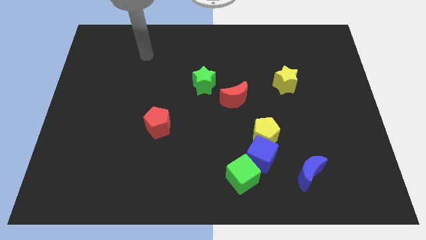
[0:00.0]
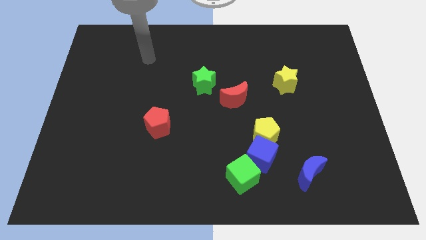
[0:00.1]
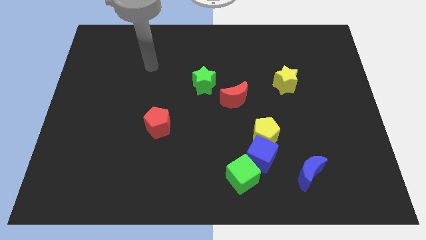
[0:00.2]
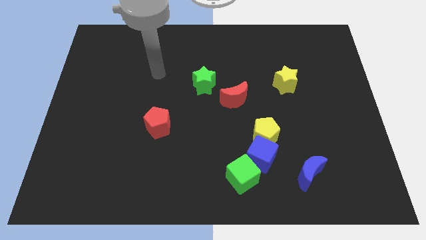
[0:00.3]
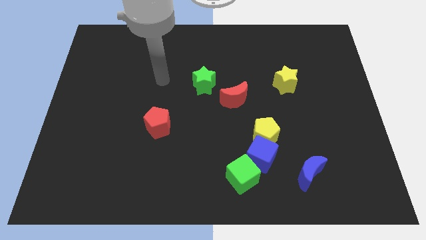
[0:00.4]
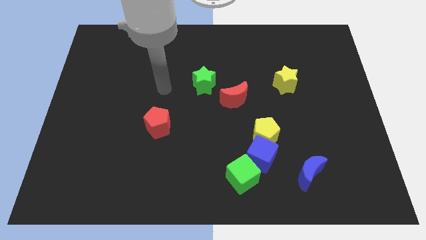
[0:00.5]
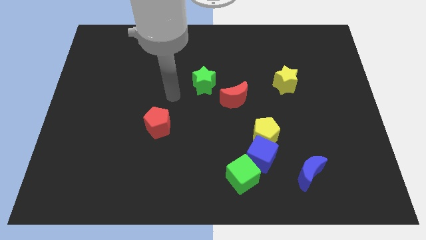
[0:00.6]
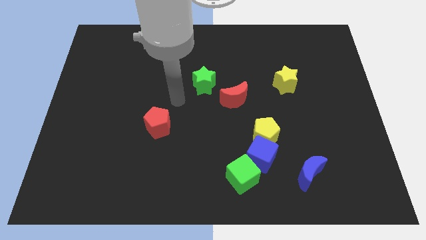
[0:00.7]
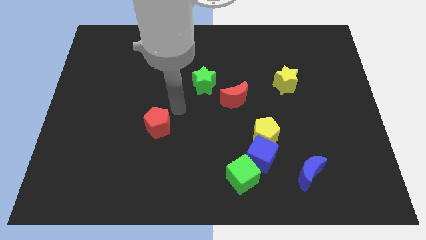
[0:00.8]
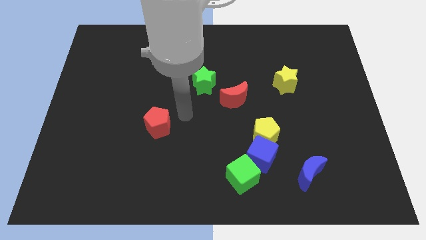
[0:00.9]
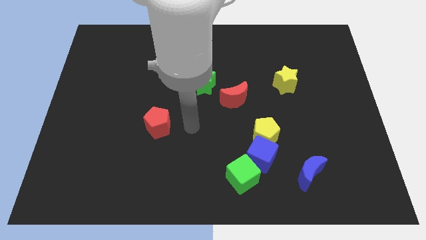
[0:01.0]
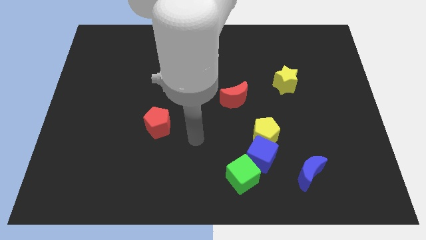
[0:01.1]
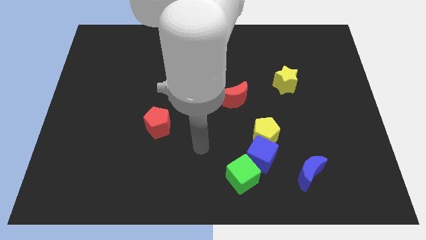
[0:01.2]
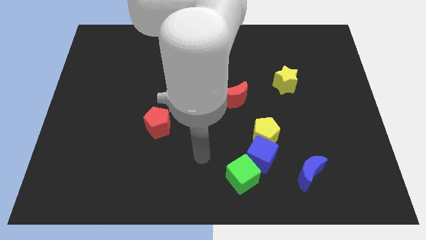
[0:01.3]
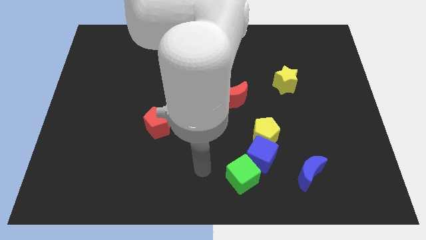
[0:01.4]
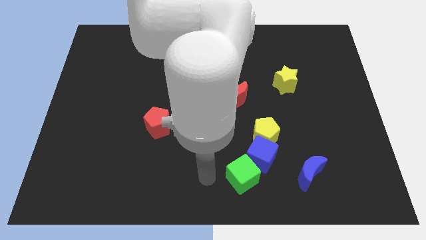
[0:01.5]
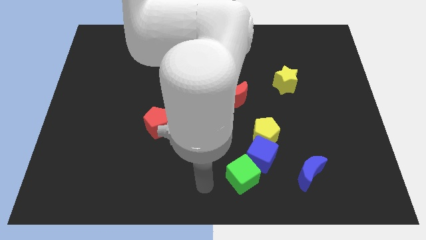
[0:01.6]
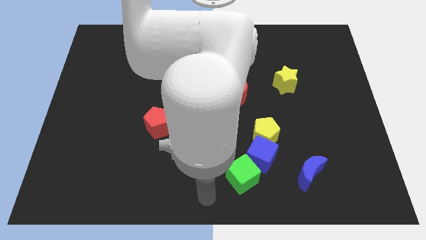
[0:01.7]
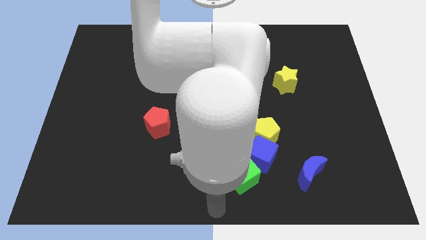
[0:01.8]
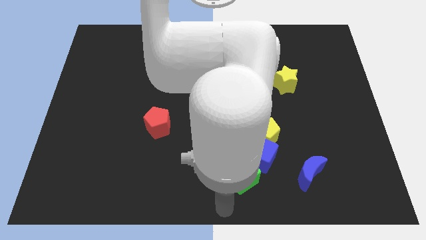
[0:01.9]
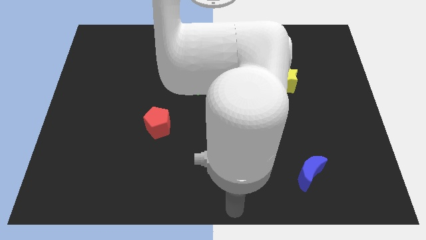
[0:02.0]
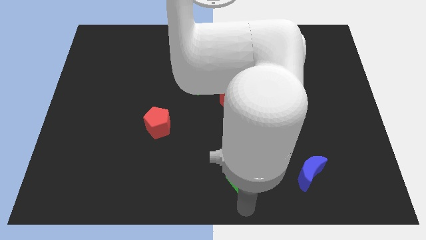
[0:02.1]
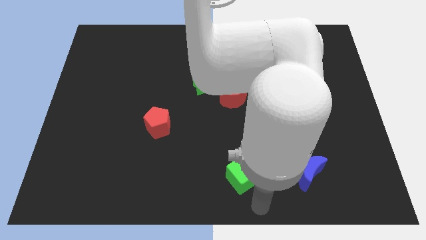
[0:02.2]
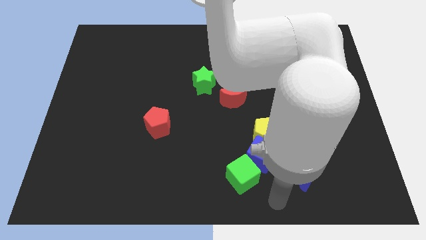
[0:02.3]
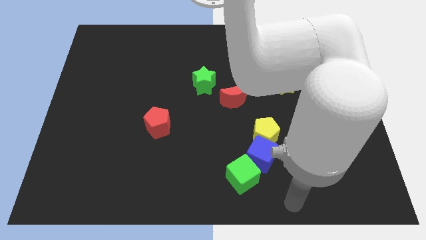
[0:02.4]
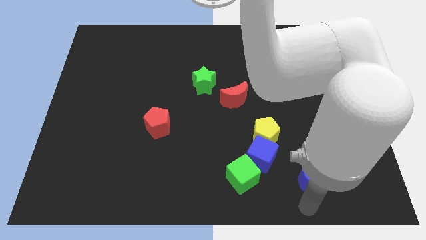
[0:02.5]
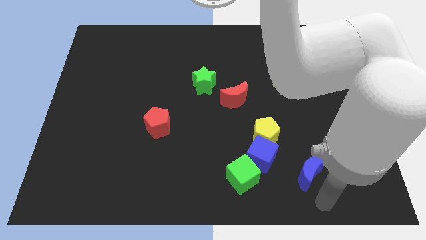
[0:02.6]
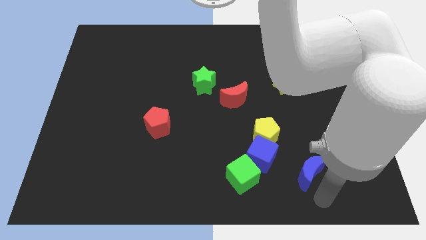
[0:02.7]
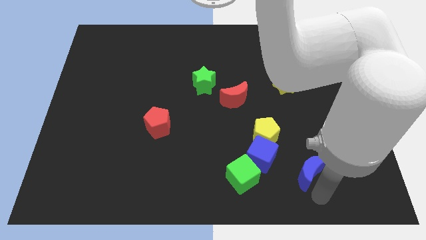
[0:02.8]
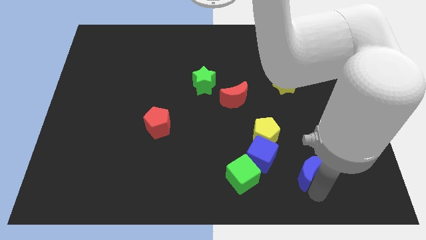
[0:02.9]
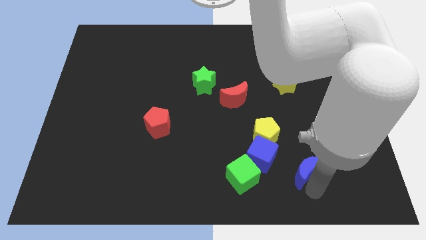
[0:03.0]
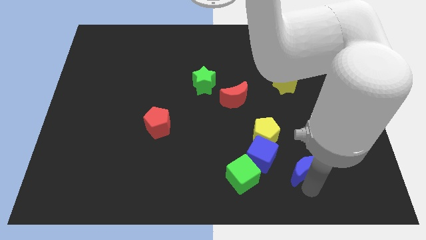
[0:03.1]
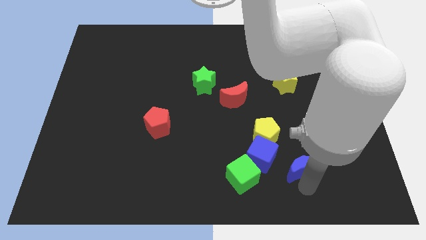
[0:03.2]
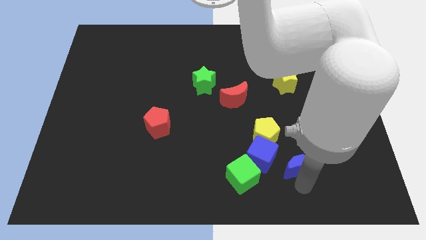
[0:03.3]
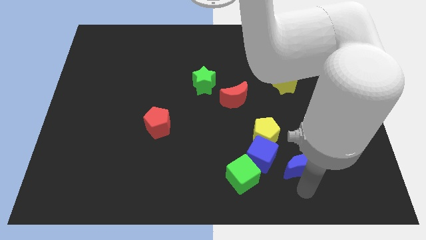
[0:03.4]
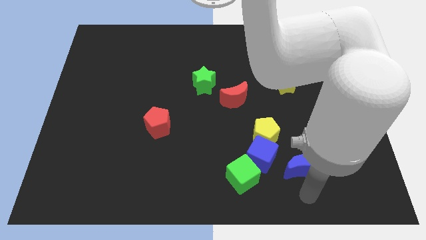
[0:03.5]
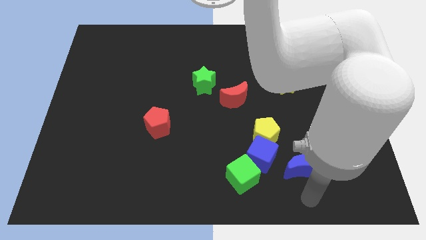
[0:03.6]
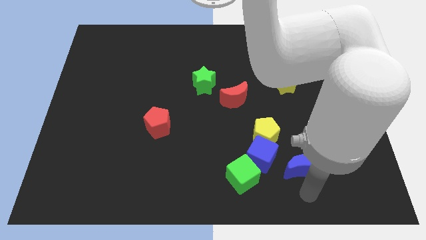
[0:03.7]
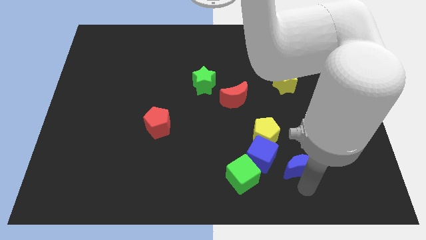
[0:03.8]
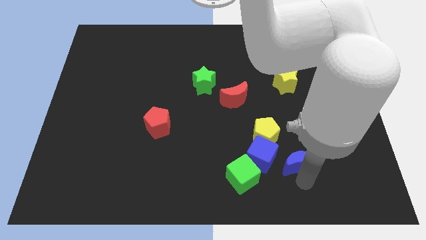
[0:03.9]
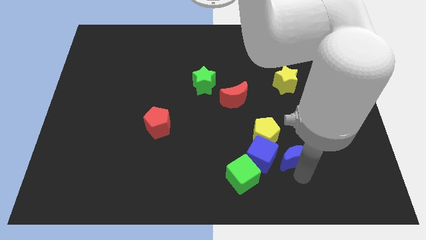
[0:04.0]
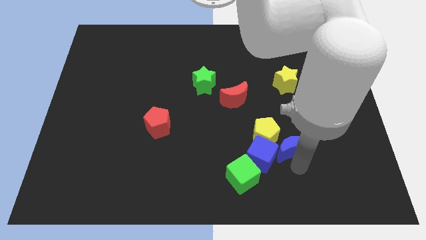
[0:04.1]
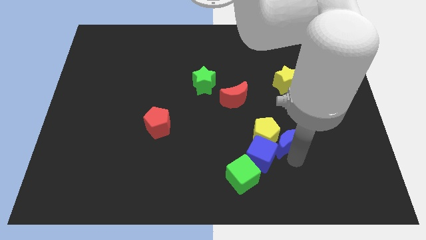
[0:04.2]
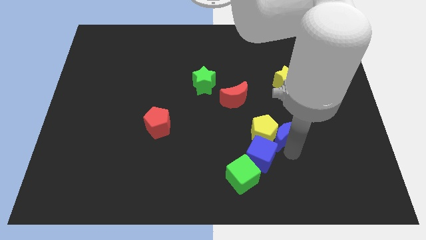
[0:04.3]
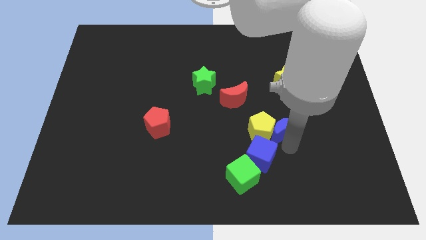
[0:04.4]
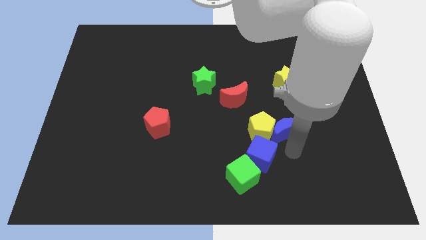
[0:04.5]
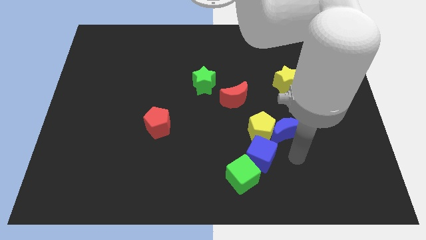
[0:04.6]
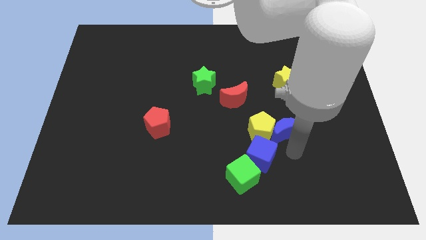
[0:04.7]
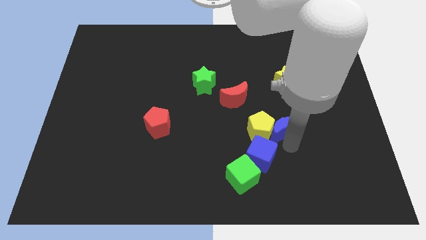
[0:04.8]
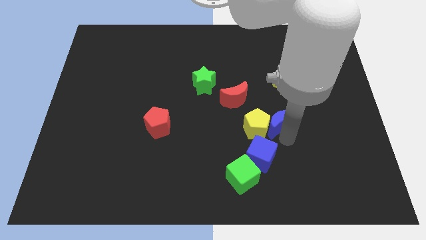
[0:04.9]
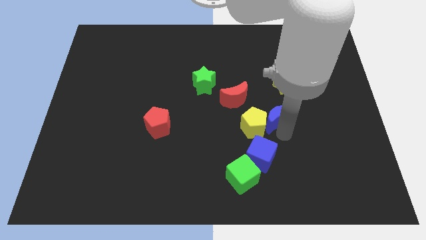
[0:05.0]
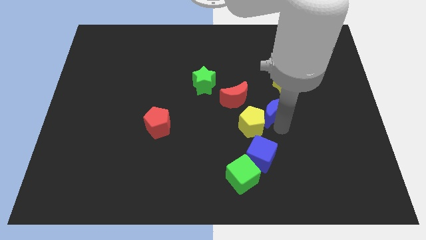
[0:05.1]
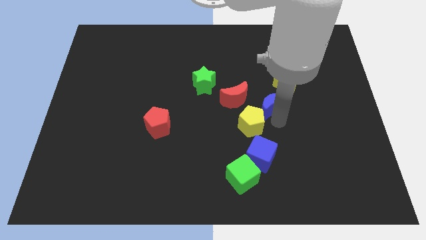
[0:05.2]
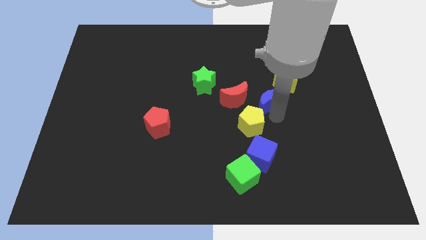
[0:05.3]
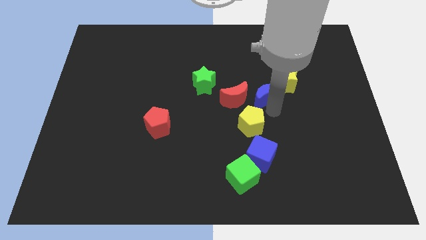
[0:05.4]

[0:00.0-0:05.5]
push the blue moon to the top right side of the red moon

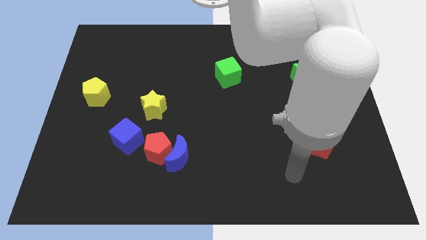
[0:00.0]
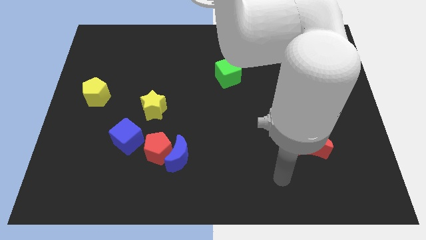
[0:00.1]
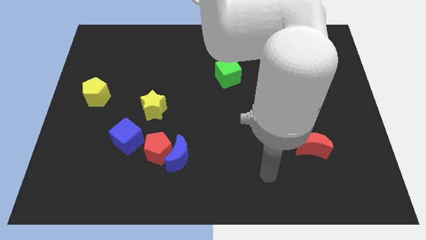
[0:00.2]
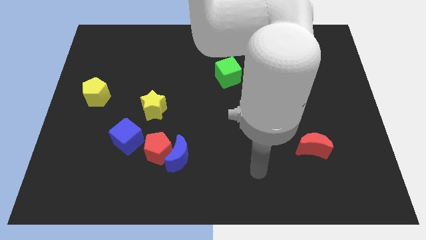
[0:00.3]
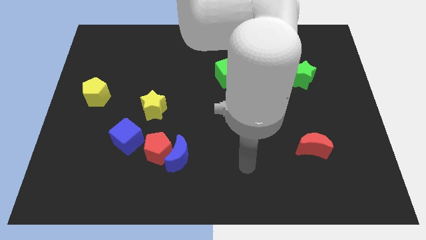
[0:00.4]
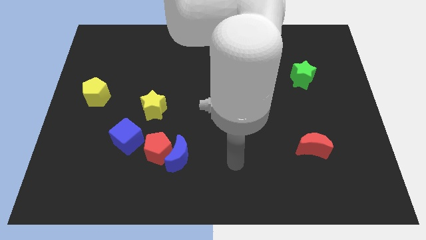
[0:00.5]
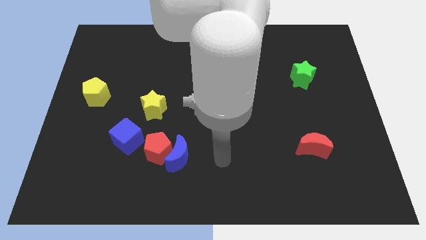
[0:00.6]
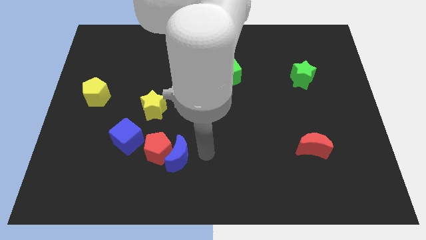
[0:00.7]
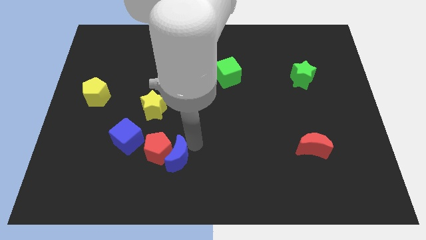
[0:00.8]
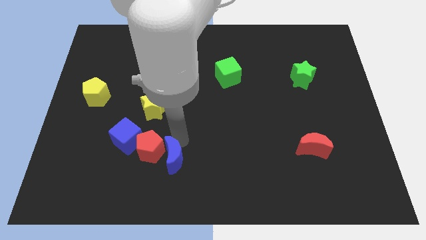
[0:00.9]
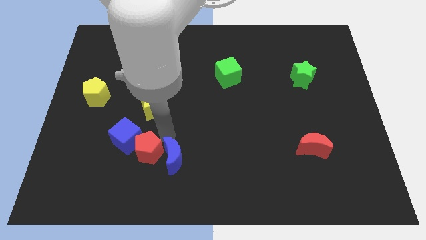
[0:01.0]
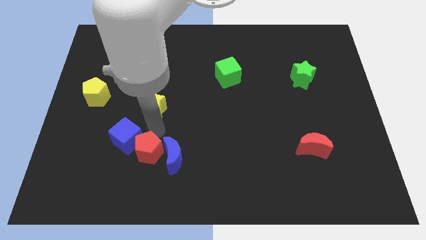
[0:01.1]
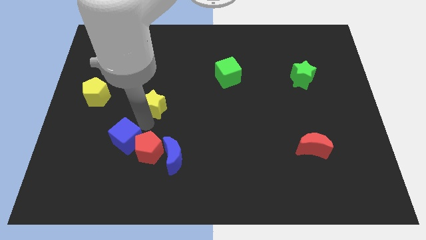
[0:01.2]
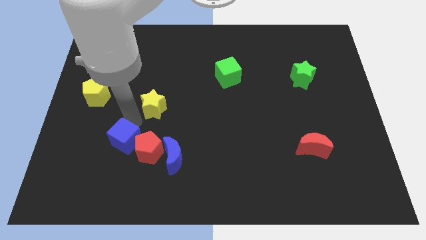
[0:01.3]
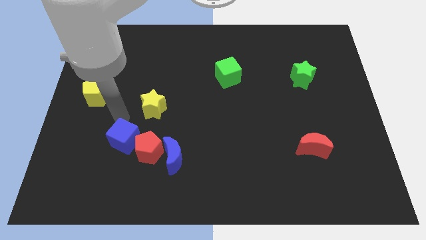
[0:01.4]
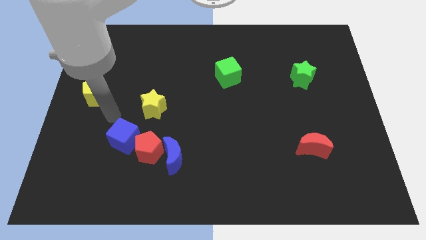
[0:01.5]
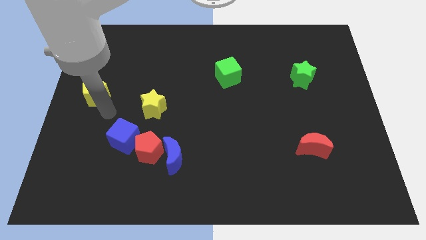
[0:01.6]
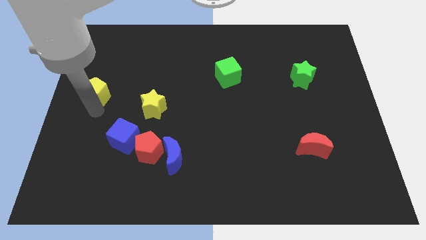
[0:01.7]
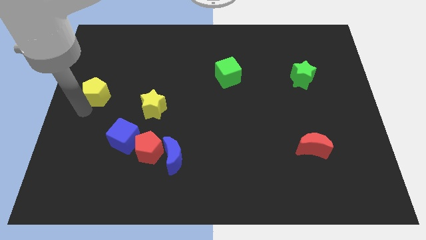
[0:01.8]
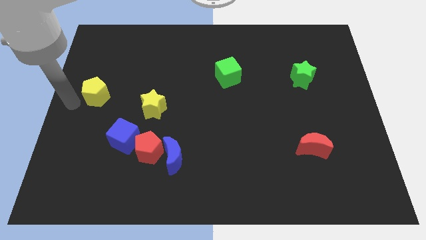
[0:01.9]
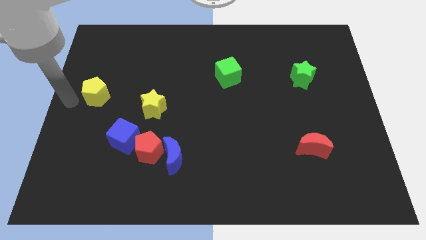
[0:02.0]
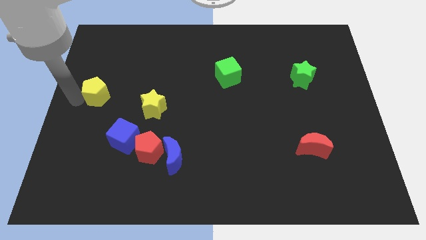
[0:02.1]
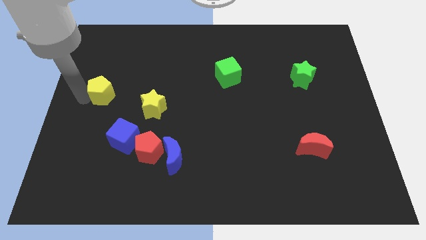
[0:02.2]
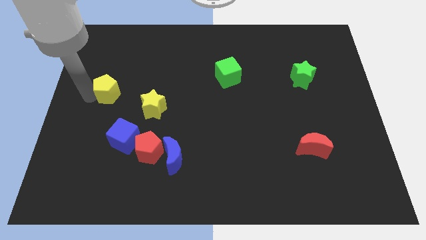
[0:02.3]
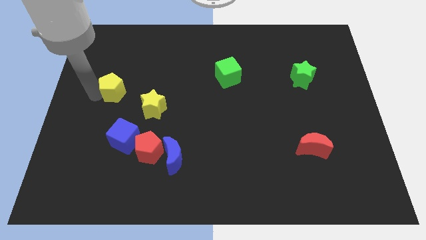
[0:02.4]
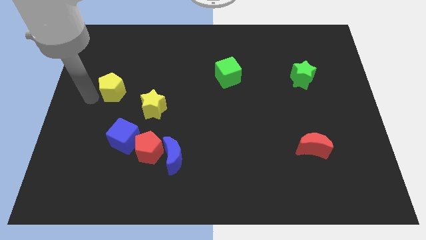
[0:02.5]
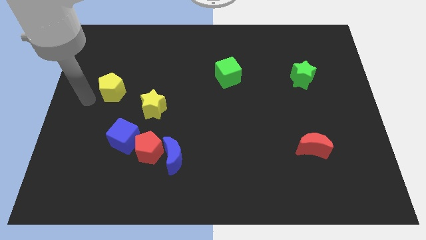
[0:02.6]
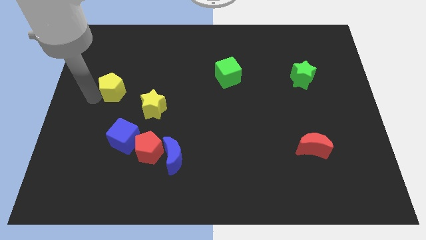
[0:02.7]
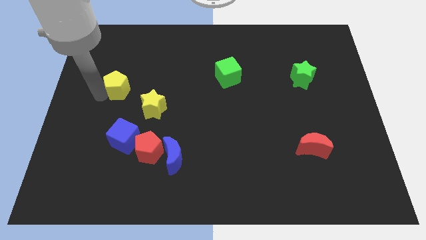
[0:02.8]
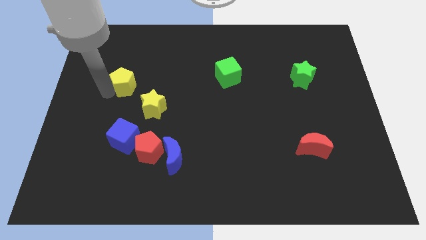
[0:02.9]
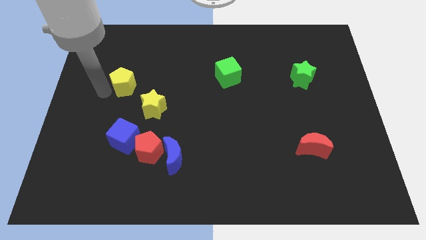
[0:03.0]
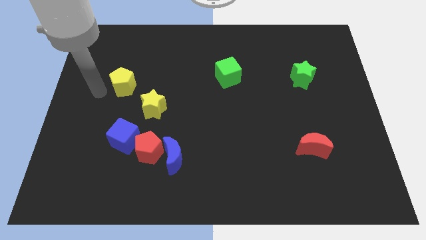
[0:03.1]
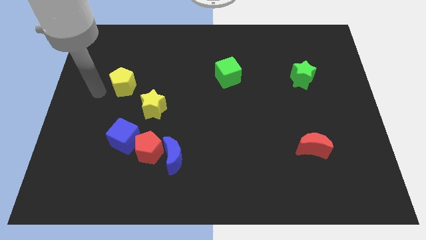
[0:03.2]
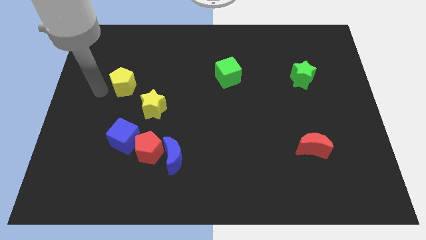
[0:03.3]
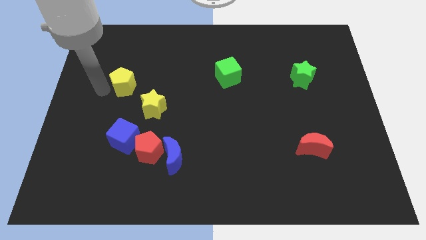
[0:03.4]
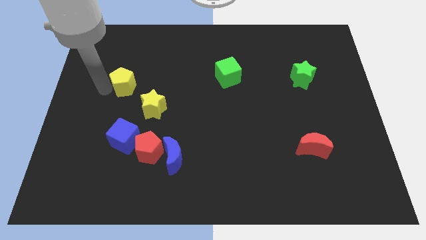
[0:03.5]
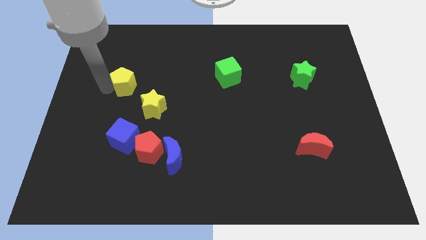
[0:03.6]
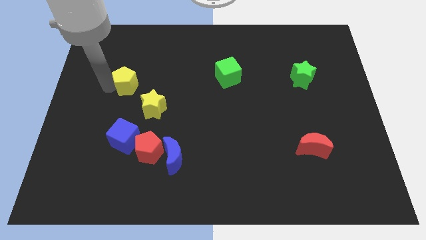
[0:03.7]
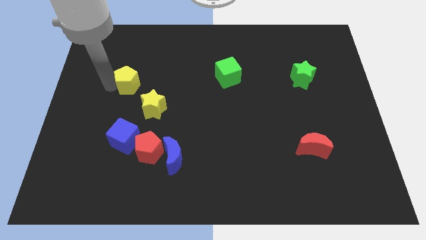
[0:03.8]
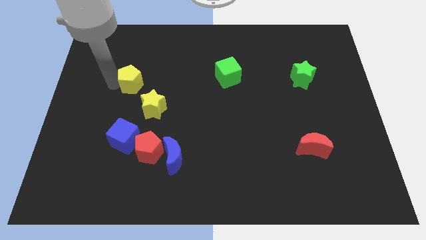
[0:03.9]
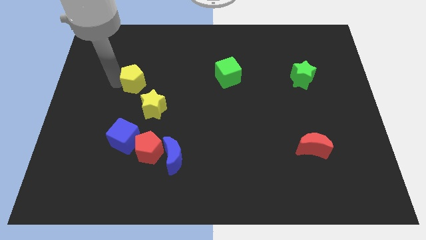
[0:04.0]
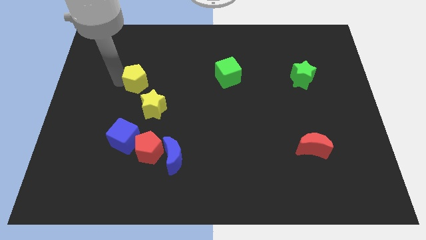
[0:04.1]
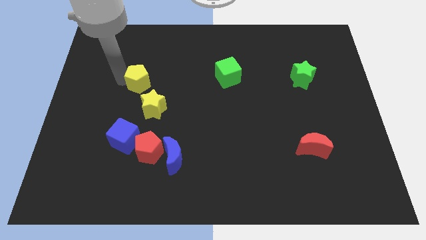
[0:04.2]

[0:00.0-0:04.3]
slide the yellow pentagon to the top side of the yellow star
